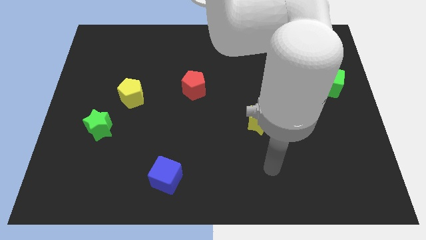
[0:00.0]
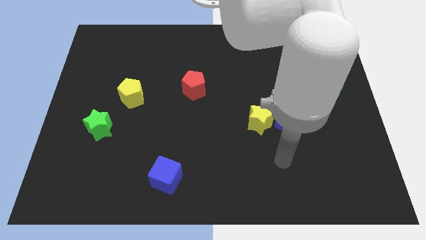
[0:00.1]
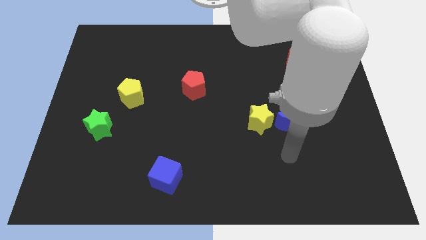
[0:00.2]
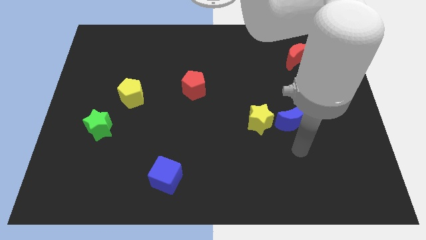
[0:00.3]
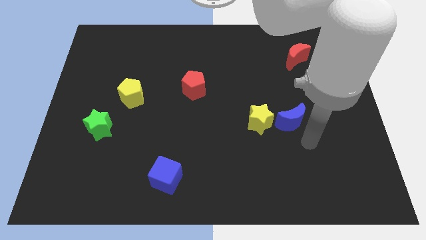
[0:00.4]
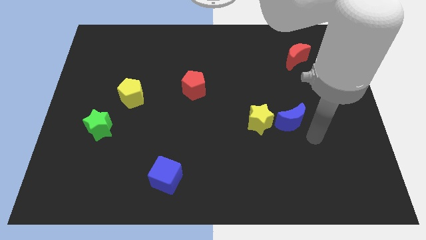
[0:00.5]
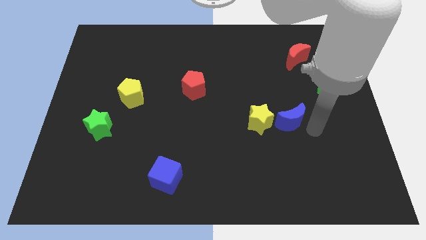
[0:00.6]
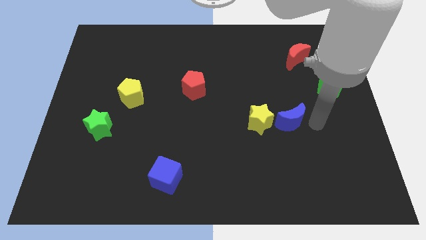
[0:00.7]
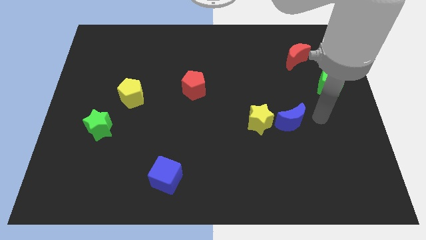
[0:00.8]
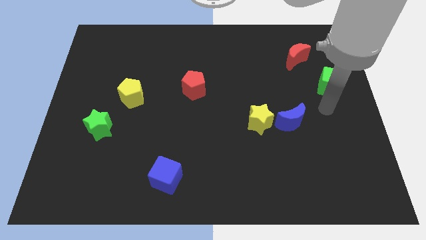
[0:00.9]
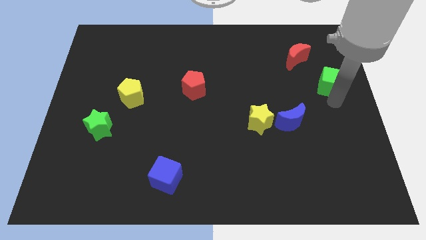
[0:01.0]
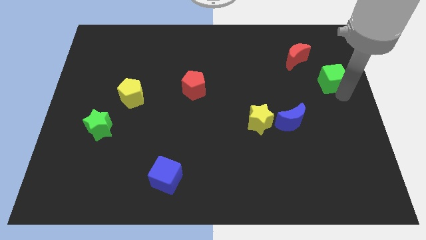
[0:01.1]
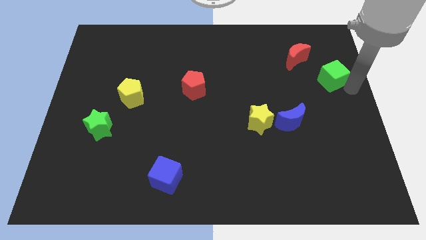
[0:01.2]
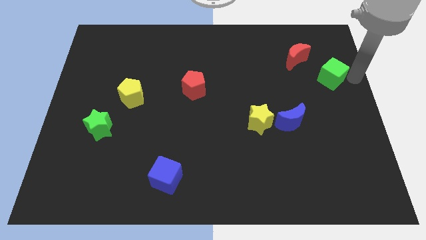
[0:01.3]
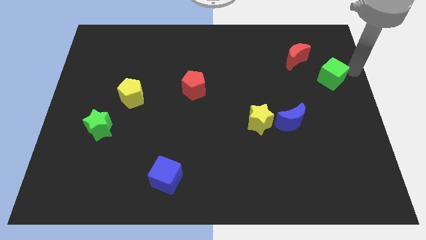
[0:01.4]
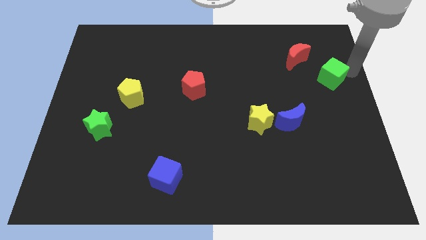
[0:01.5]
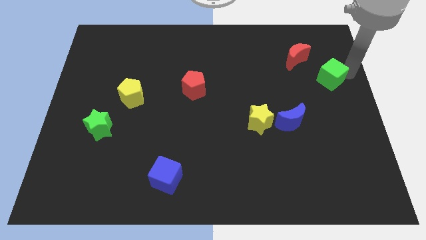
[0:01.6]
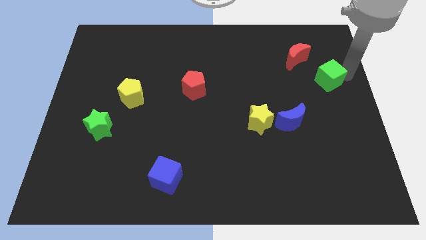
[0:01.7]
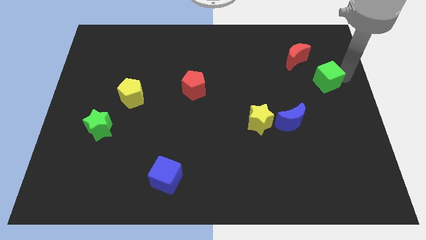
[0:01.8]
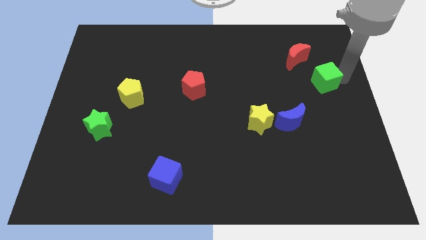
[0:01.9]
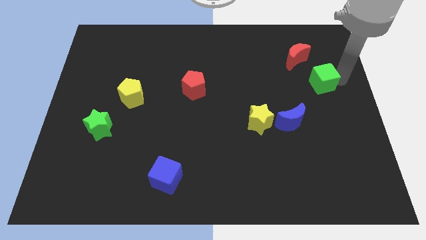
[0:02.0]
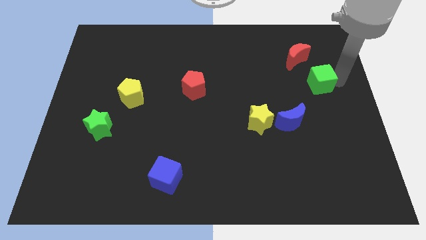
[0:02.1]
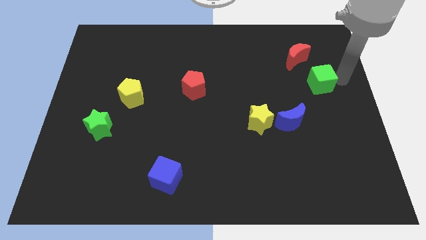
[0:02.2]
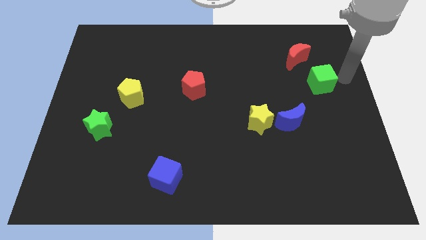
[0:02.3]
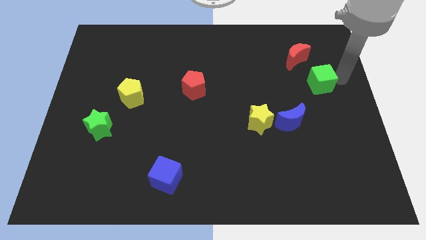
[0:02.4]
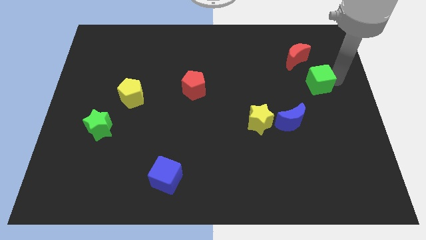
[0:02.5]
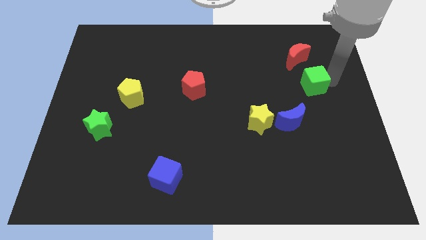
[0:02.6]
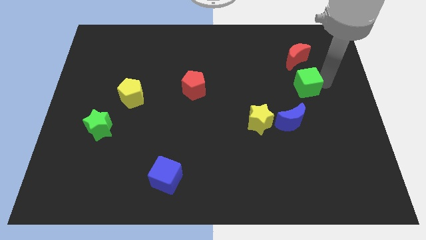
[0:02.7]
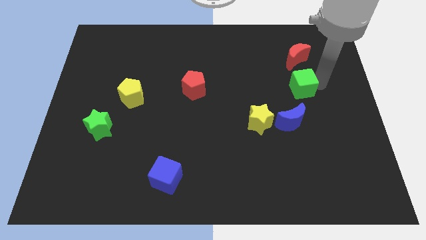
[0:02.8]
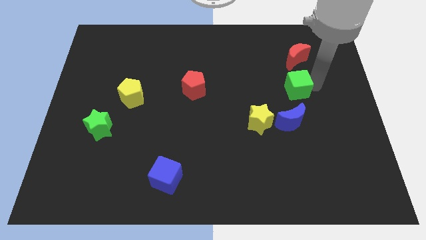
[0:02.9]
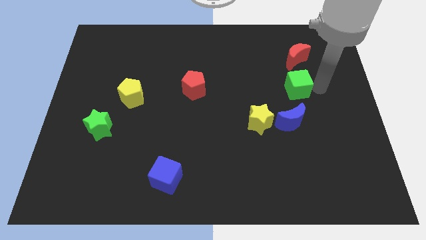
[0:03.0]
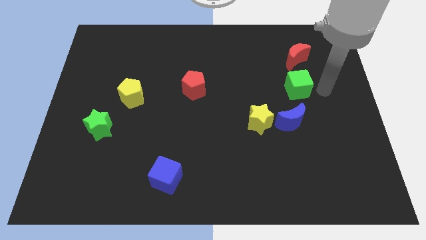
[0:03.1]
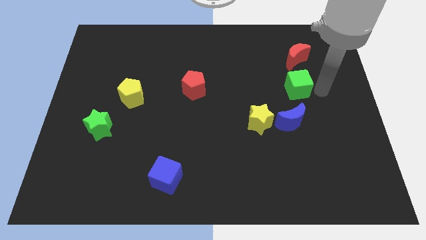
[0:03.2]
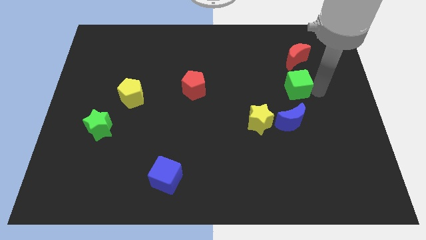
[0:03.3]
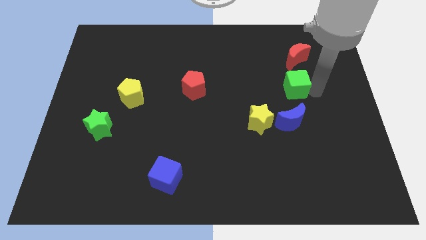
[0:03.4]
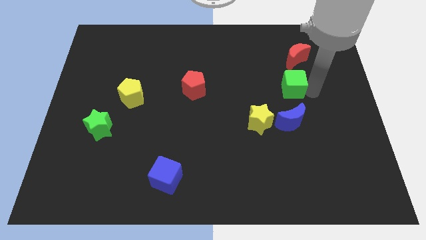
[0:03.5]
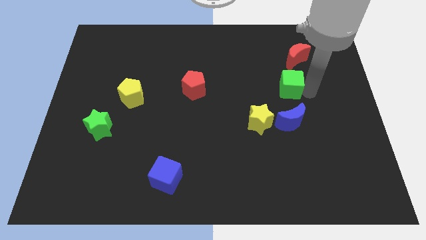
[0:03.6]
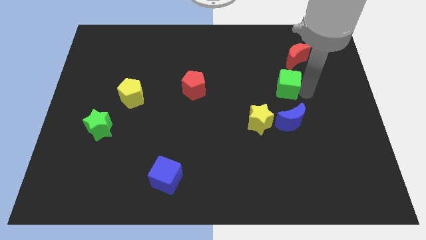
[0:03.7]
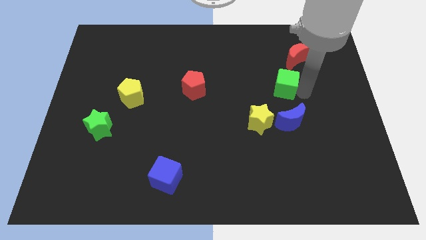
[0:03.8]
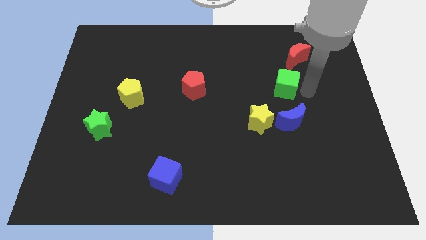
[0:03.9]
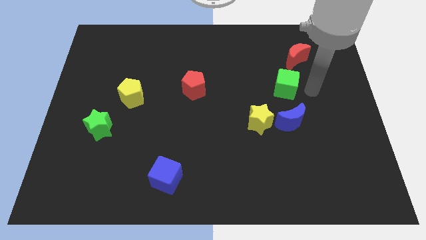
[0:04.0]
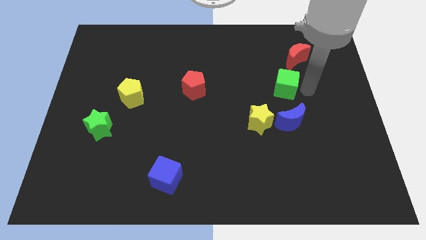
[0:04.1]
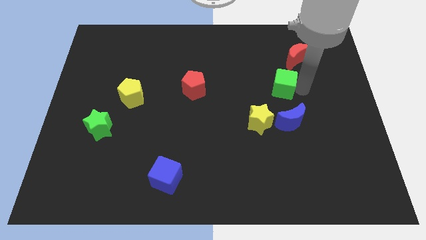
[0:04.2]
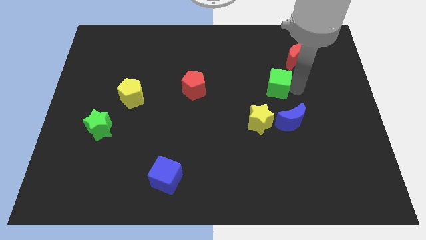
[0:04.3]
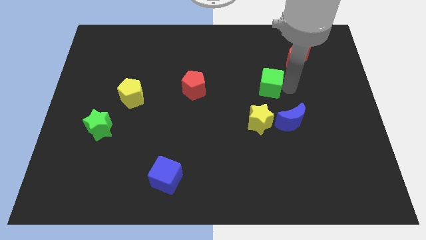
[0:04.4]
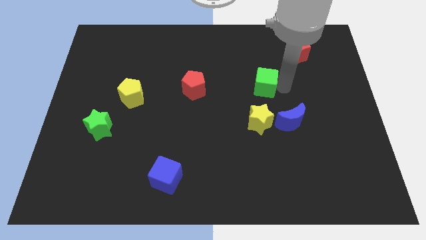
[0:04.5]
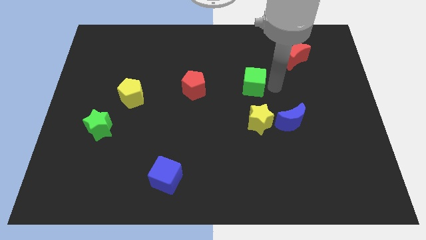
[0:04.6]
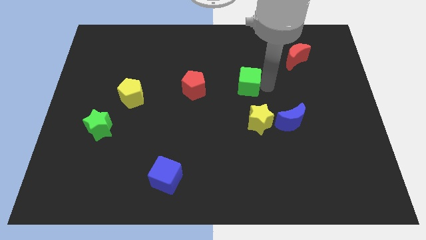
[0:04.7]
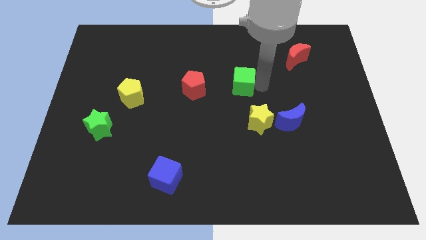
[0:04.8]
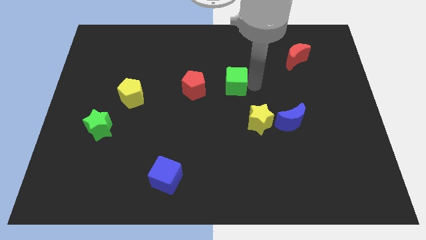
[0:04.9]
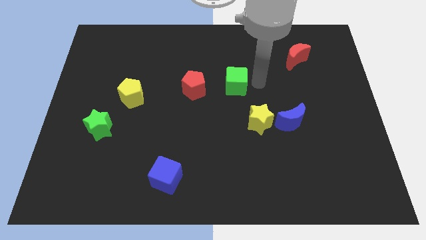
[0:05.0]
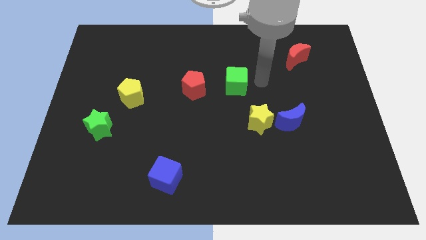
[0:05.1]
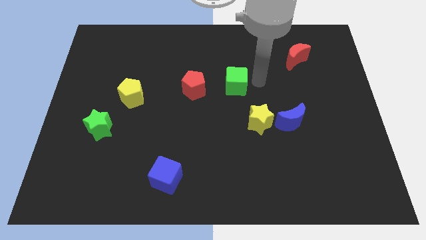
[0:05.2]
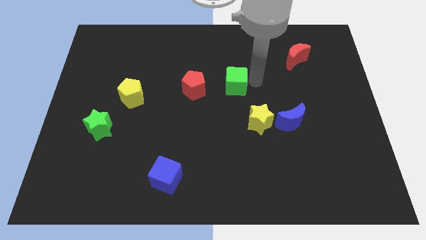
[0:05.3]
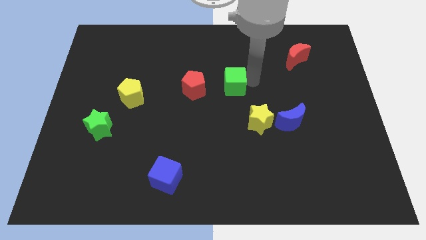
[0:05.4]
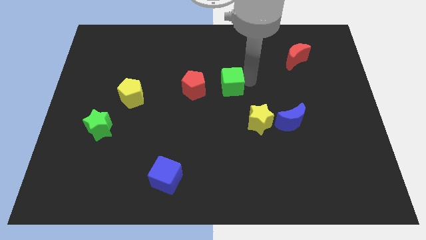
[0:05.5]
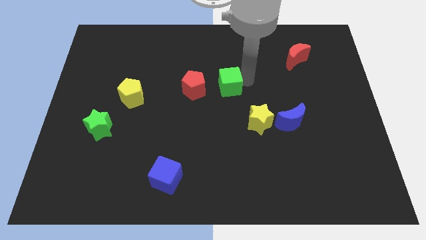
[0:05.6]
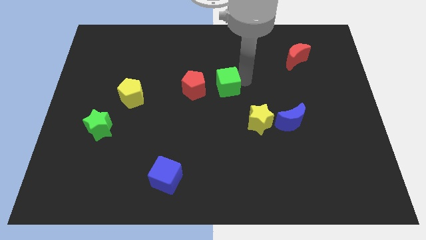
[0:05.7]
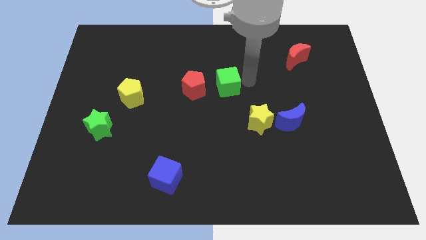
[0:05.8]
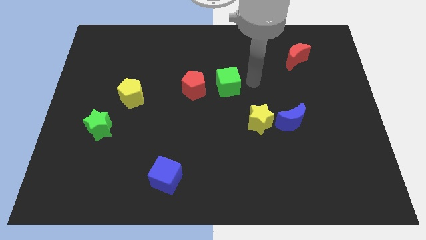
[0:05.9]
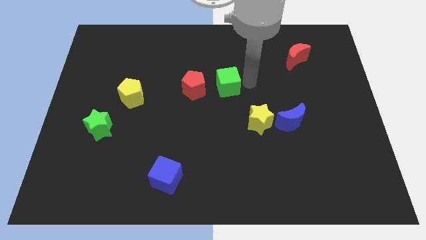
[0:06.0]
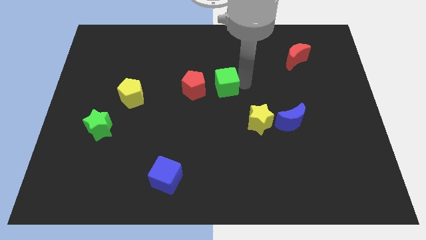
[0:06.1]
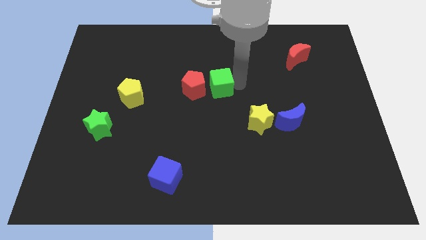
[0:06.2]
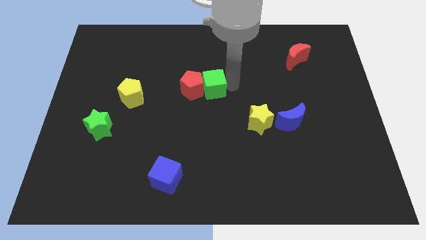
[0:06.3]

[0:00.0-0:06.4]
slide the green cube next to the red pentagon
